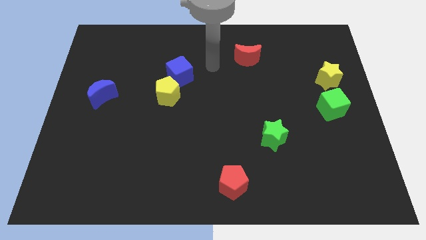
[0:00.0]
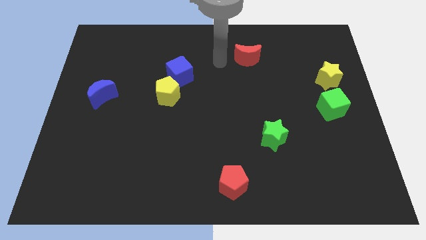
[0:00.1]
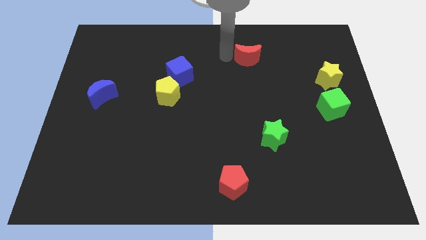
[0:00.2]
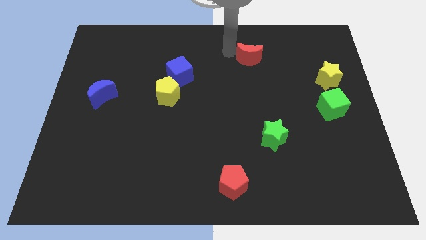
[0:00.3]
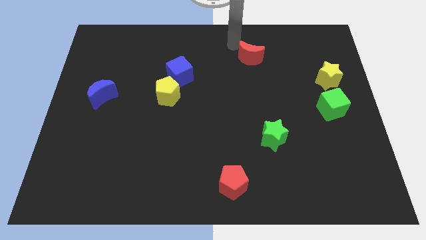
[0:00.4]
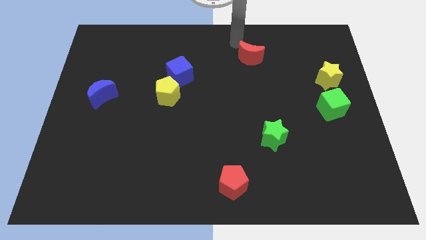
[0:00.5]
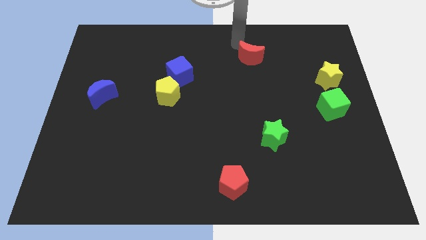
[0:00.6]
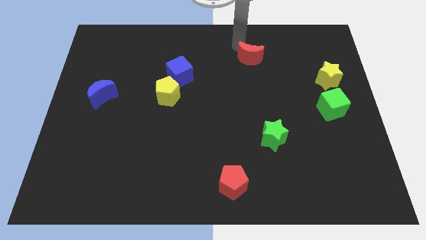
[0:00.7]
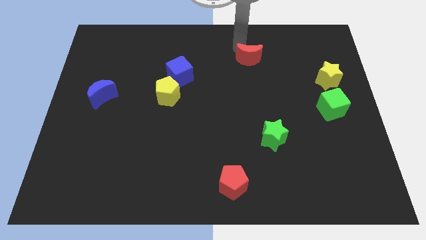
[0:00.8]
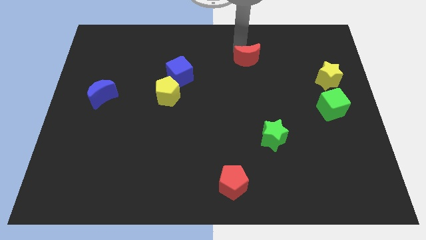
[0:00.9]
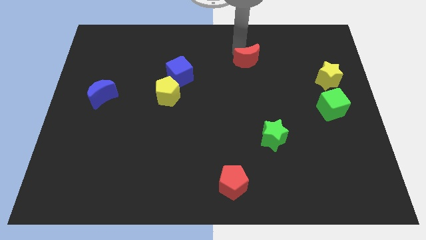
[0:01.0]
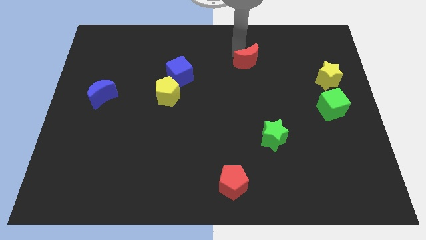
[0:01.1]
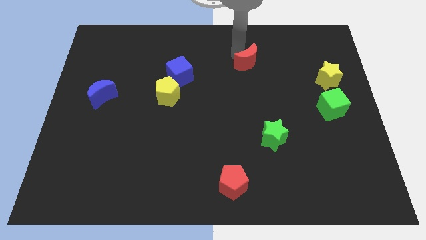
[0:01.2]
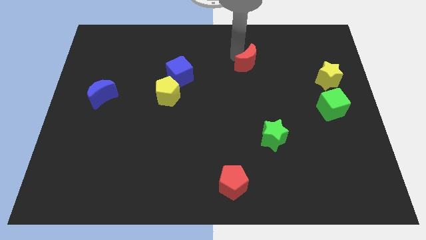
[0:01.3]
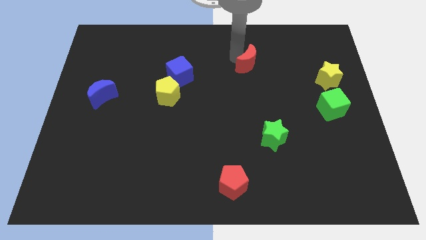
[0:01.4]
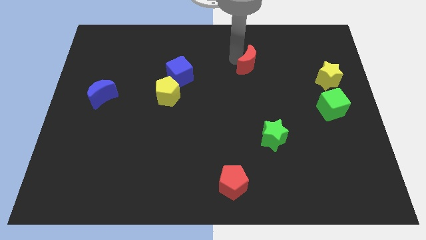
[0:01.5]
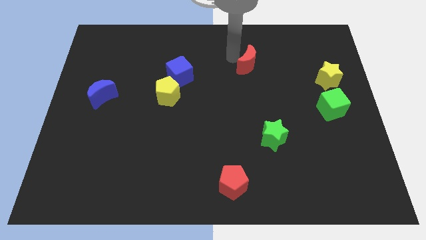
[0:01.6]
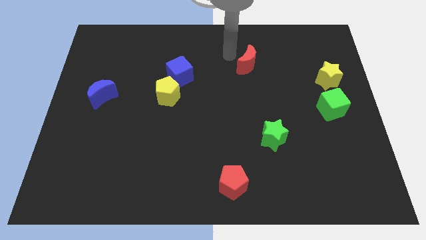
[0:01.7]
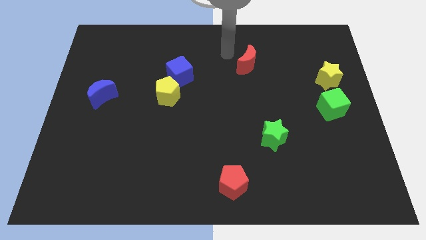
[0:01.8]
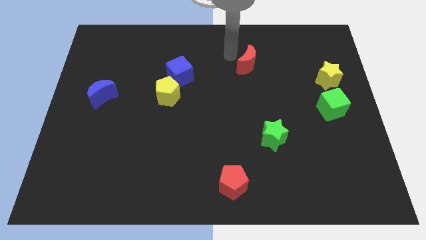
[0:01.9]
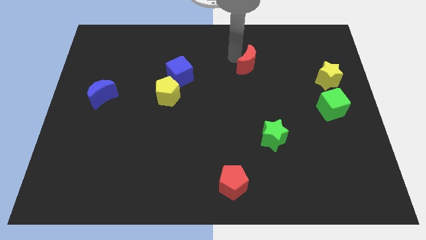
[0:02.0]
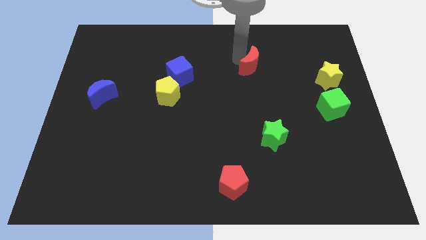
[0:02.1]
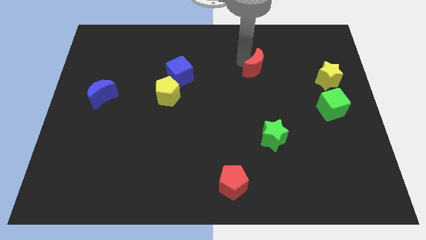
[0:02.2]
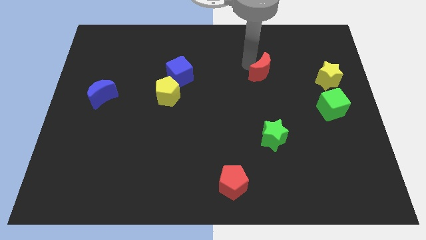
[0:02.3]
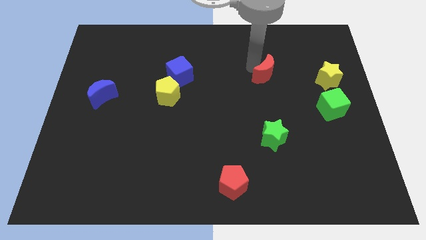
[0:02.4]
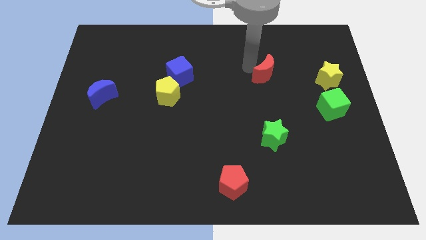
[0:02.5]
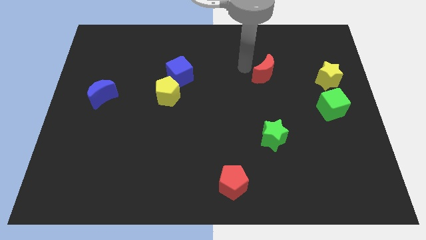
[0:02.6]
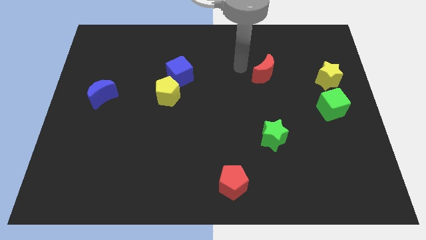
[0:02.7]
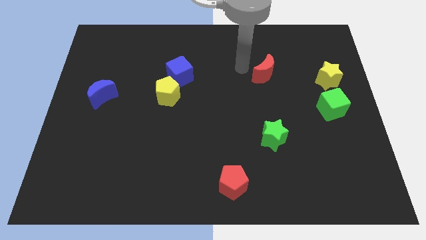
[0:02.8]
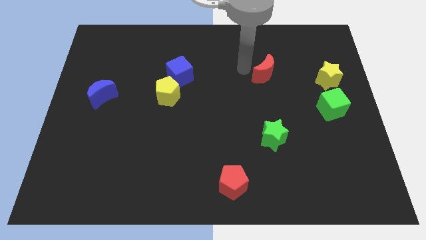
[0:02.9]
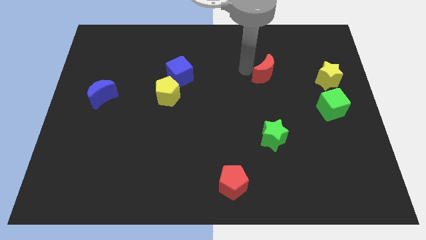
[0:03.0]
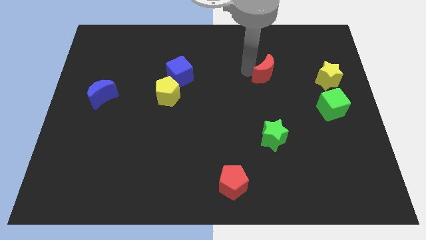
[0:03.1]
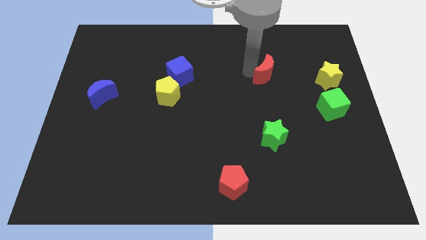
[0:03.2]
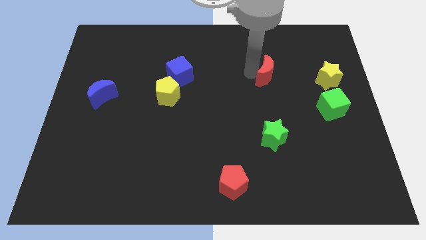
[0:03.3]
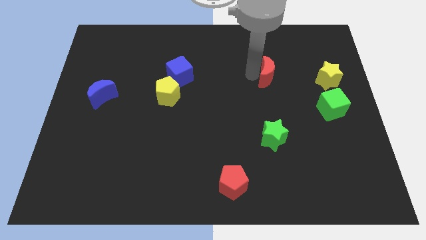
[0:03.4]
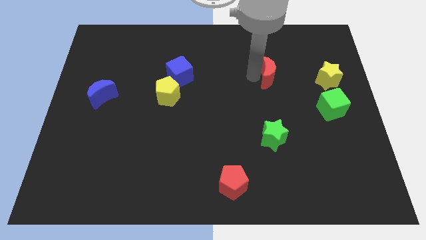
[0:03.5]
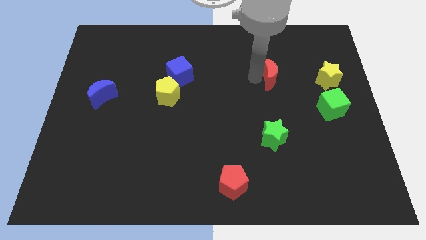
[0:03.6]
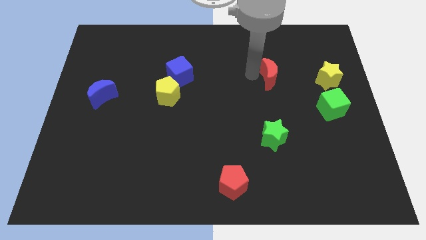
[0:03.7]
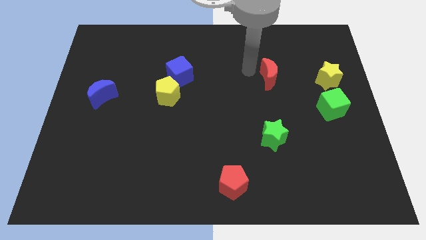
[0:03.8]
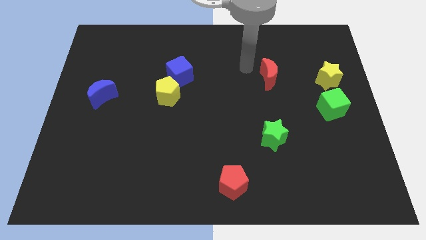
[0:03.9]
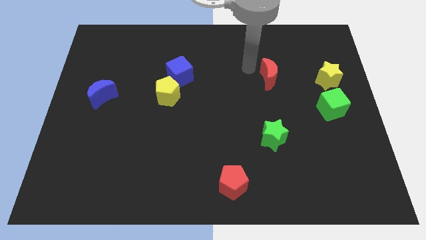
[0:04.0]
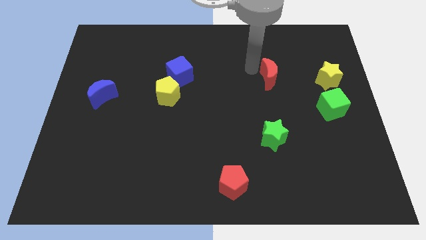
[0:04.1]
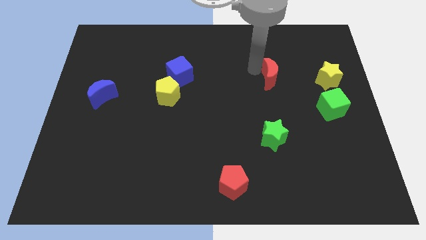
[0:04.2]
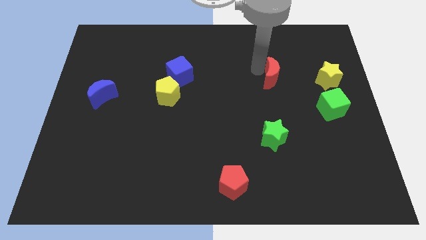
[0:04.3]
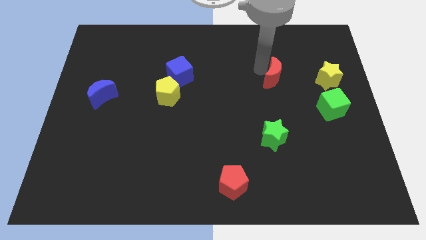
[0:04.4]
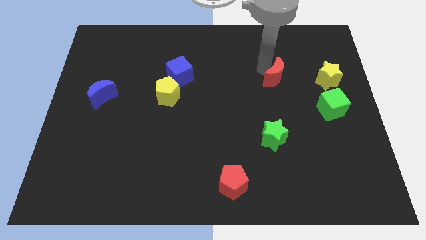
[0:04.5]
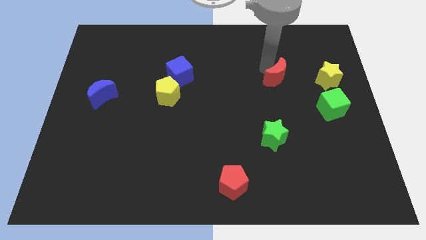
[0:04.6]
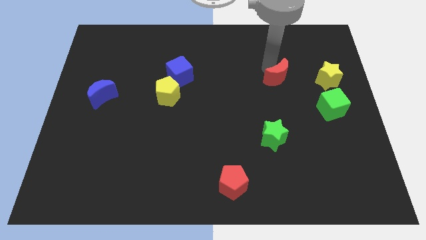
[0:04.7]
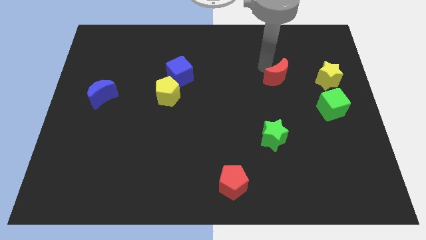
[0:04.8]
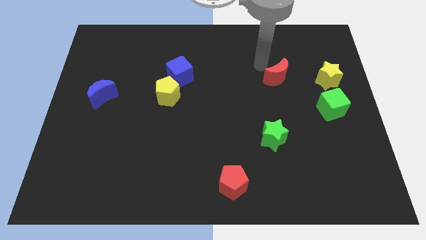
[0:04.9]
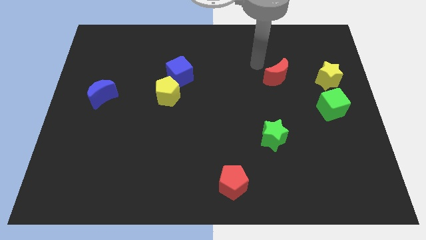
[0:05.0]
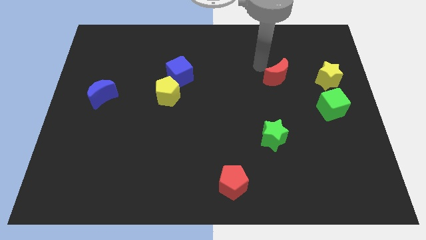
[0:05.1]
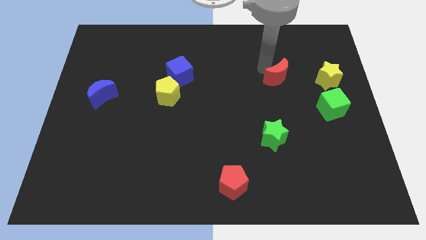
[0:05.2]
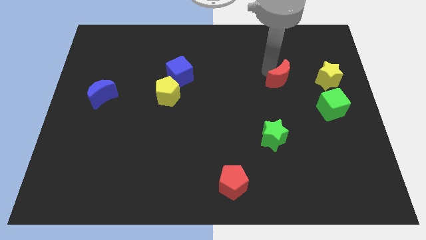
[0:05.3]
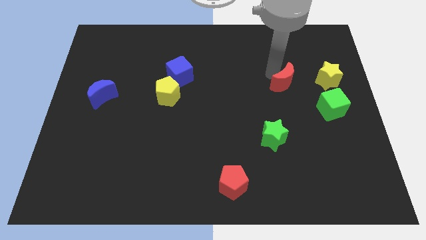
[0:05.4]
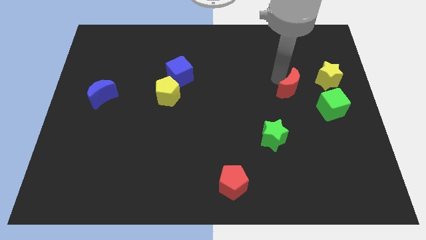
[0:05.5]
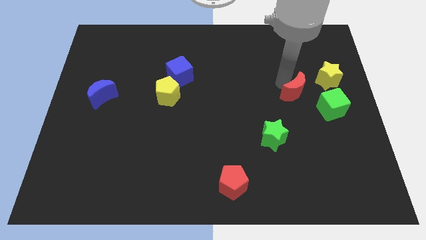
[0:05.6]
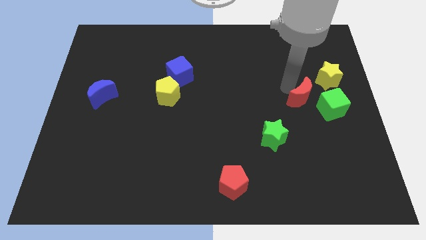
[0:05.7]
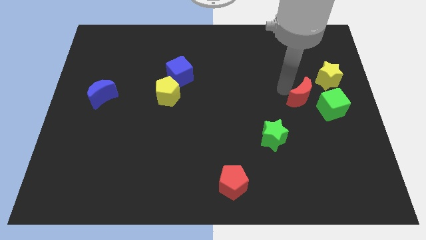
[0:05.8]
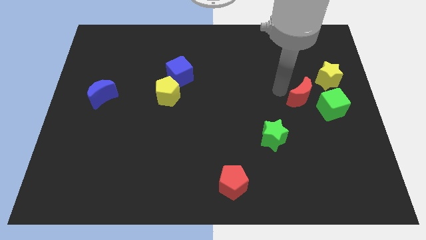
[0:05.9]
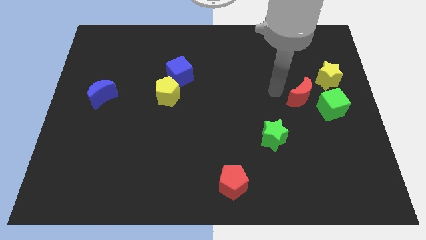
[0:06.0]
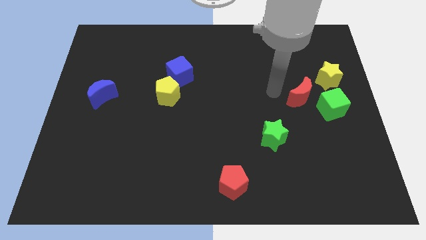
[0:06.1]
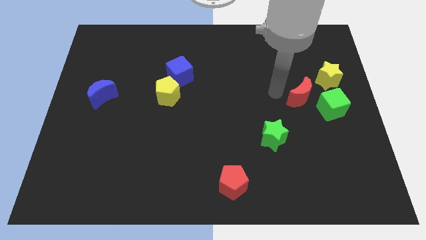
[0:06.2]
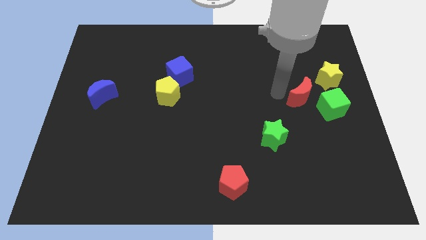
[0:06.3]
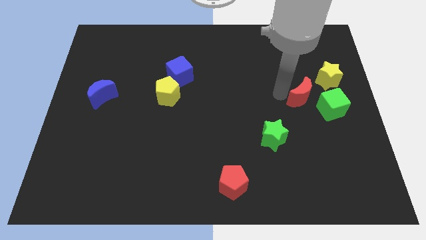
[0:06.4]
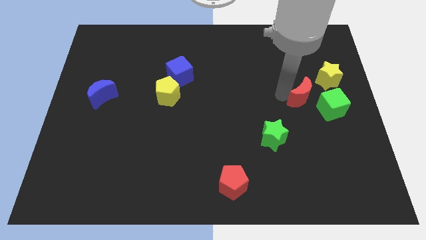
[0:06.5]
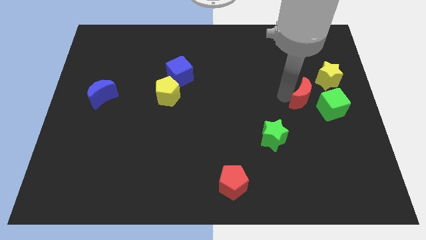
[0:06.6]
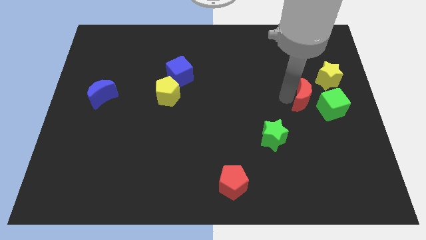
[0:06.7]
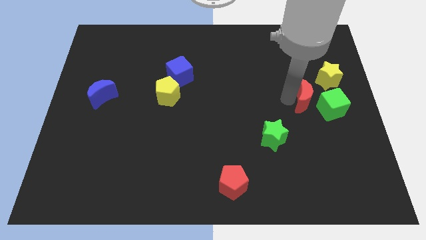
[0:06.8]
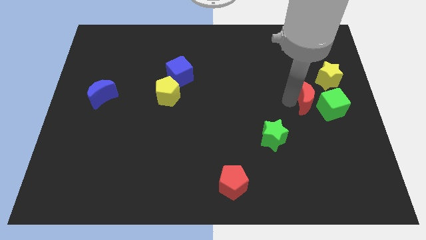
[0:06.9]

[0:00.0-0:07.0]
put the red moon to the green cube
